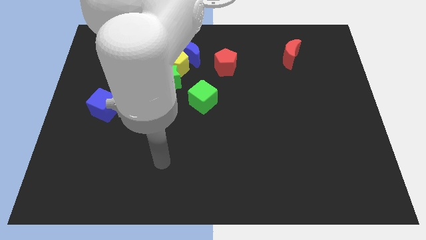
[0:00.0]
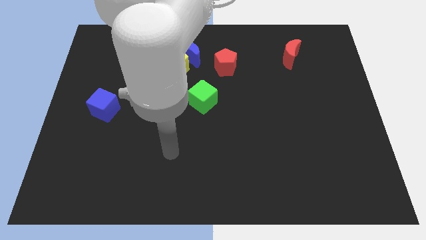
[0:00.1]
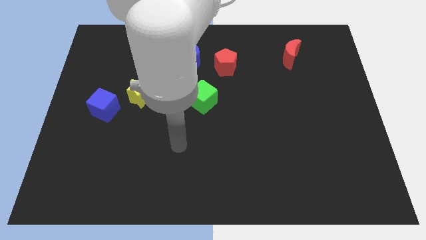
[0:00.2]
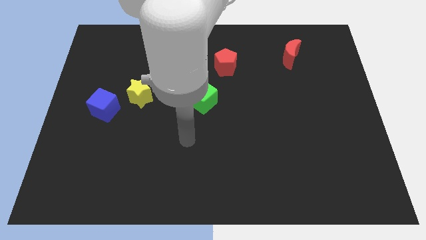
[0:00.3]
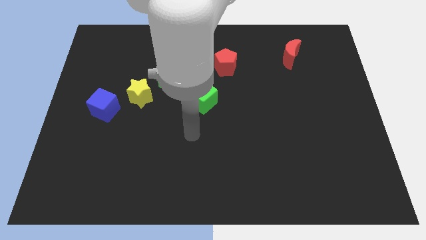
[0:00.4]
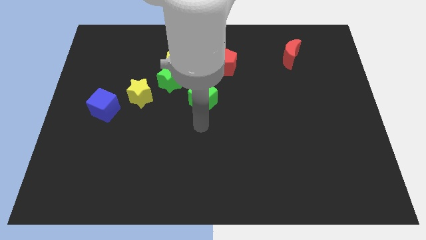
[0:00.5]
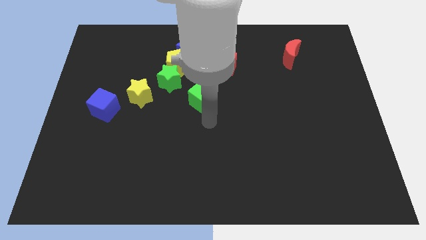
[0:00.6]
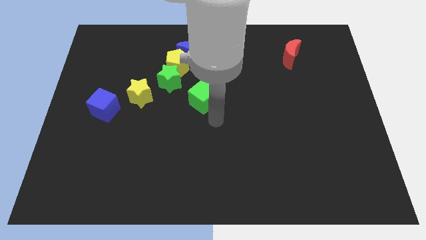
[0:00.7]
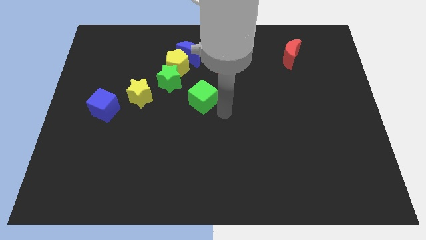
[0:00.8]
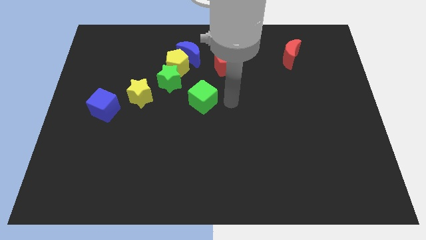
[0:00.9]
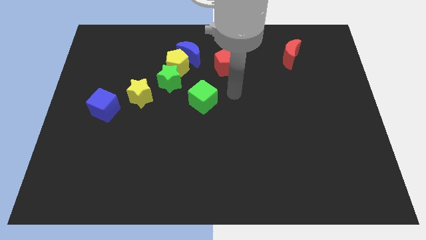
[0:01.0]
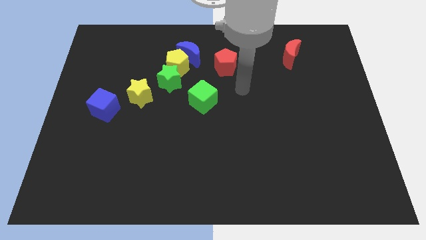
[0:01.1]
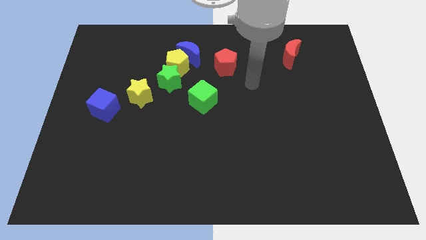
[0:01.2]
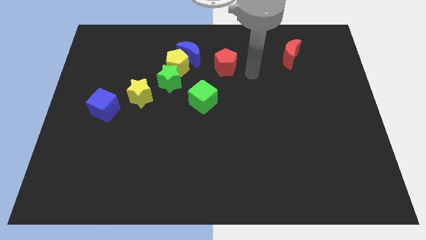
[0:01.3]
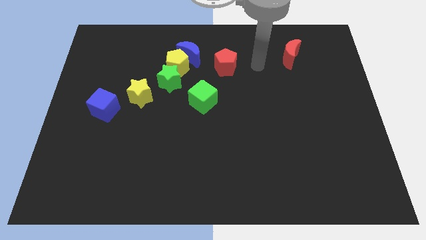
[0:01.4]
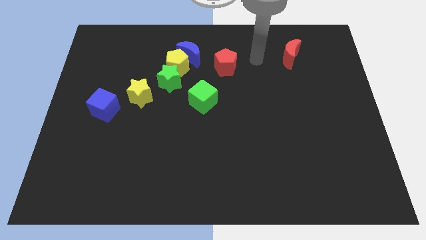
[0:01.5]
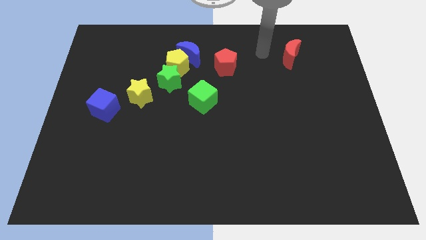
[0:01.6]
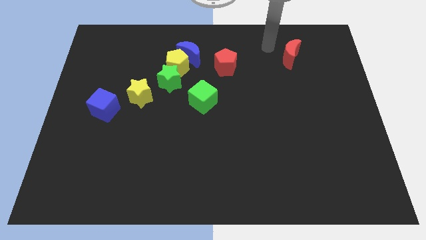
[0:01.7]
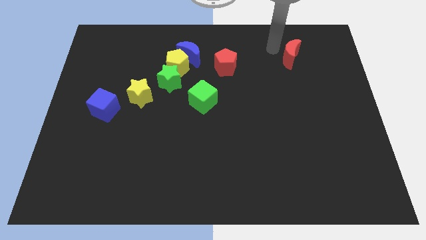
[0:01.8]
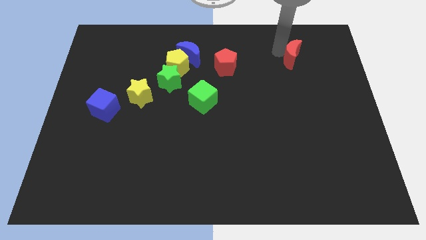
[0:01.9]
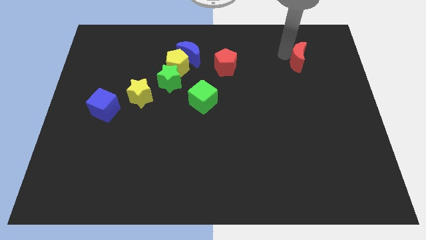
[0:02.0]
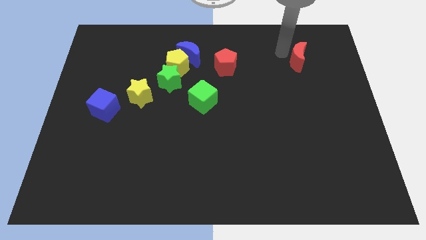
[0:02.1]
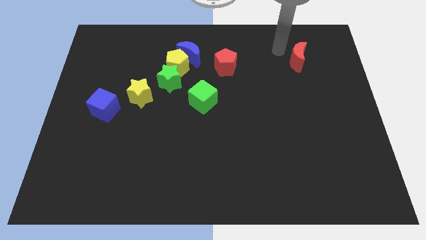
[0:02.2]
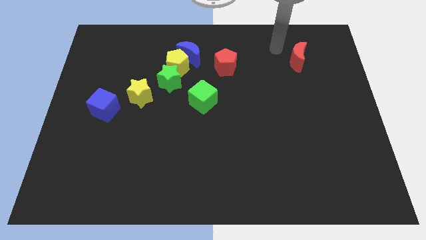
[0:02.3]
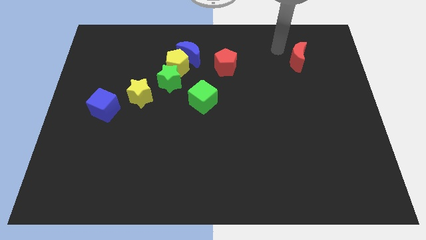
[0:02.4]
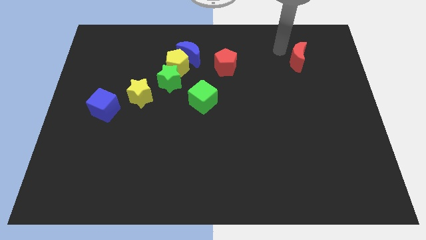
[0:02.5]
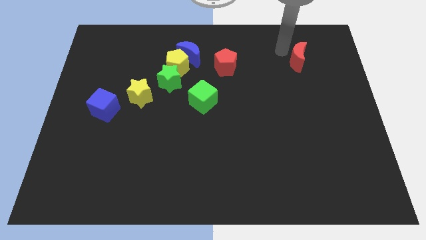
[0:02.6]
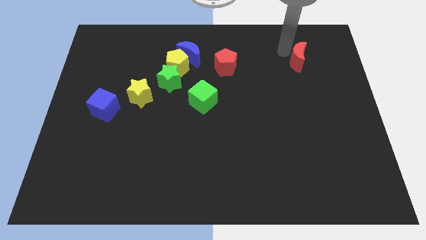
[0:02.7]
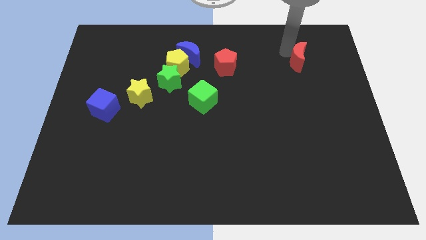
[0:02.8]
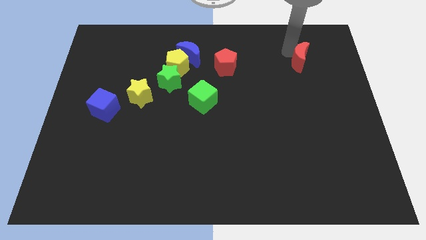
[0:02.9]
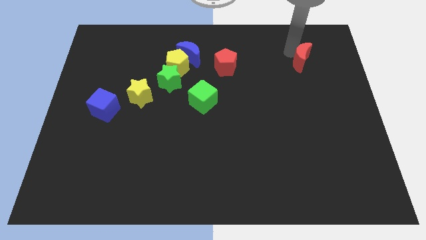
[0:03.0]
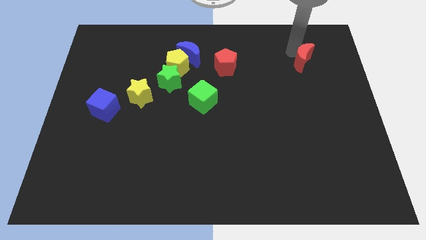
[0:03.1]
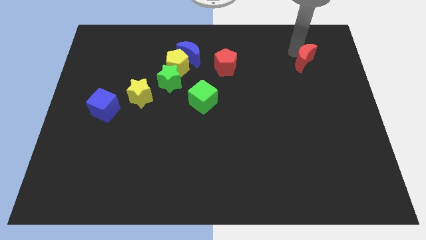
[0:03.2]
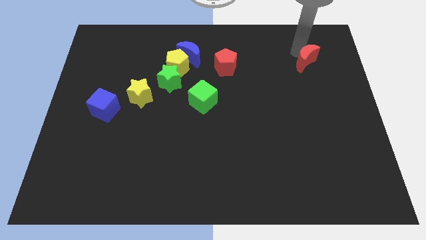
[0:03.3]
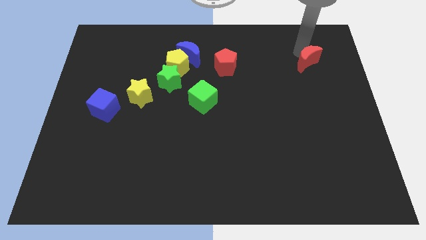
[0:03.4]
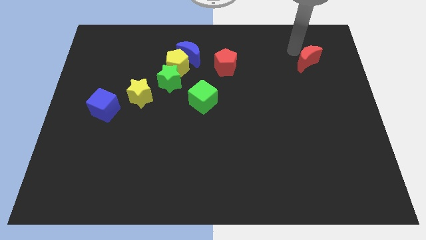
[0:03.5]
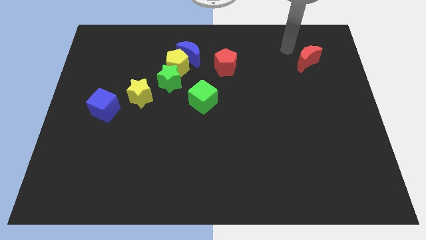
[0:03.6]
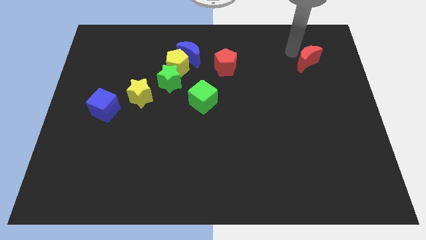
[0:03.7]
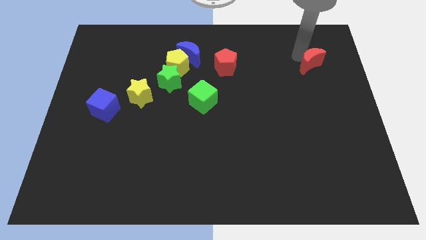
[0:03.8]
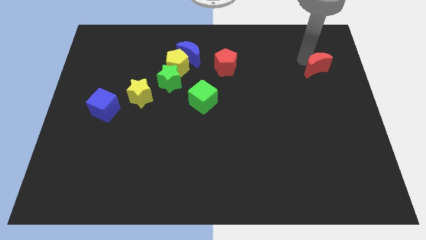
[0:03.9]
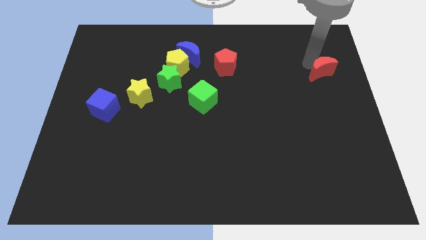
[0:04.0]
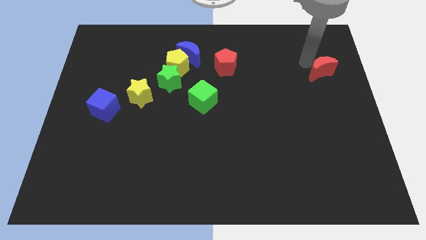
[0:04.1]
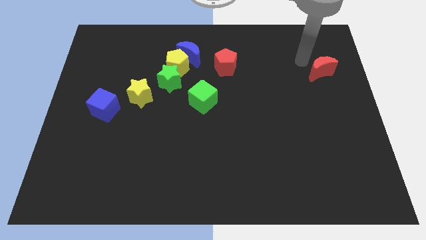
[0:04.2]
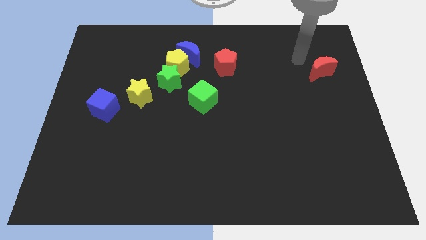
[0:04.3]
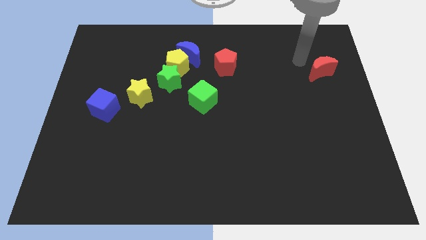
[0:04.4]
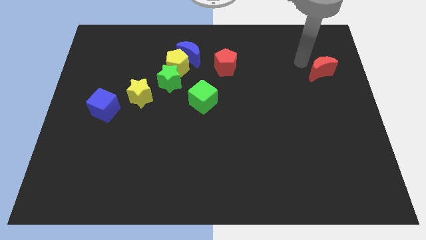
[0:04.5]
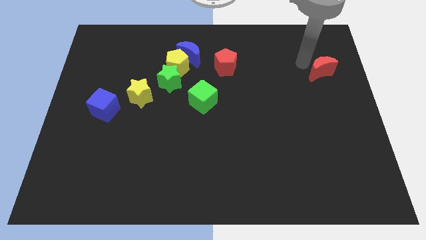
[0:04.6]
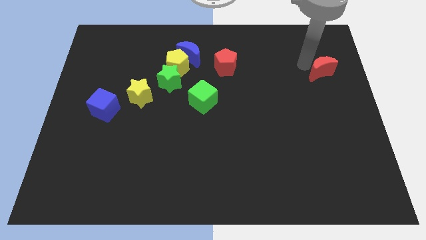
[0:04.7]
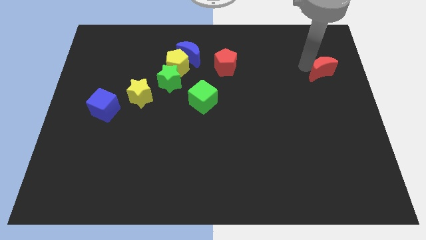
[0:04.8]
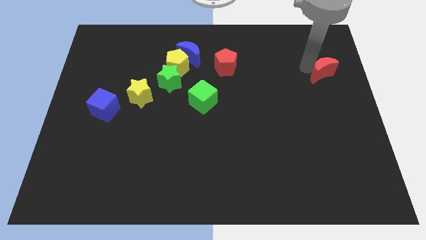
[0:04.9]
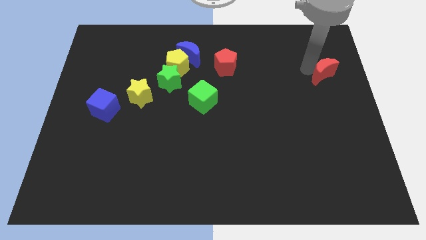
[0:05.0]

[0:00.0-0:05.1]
slide the red moon to the right side of the board

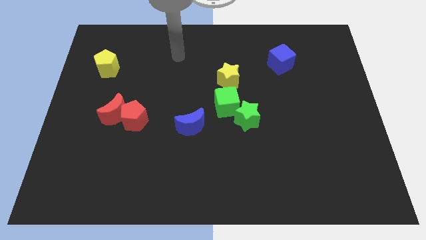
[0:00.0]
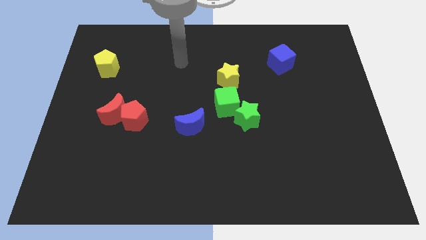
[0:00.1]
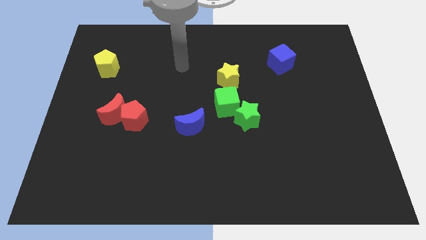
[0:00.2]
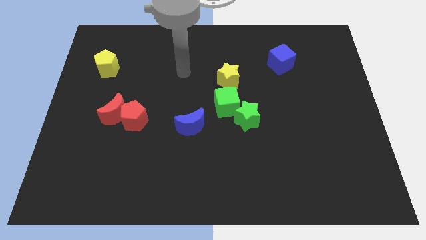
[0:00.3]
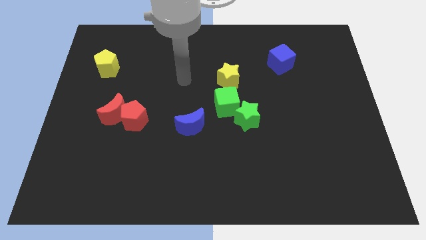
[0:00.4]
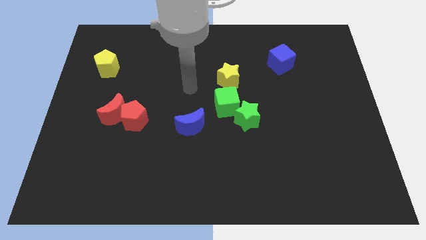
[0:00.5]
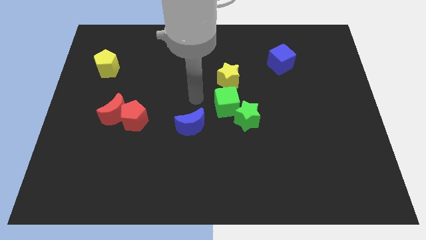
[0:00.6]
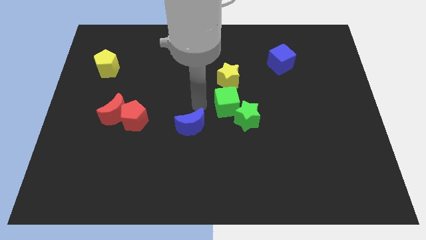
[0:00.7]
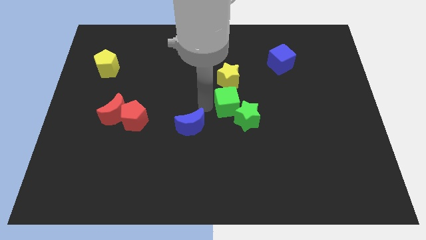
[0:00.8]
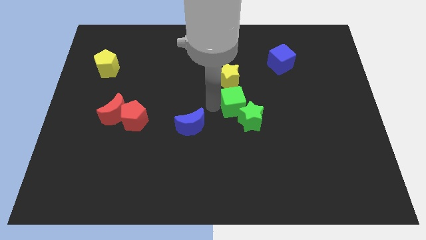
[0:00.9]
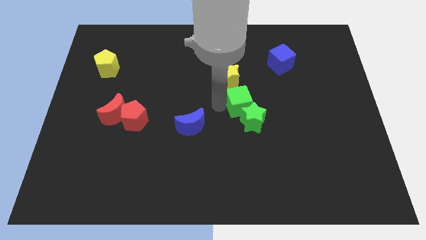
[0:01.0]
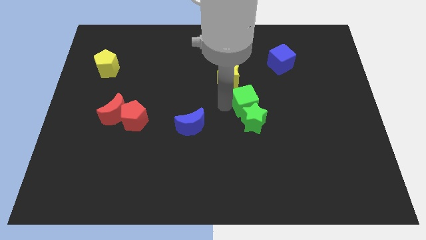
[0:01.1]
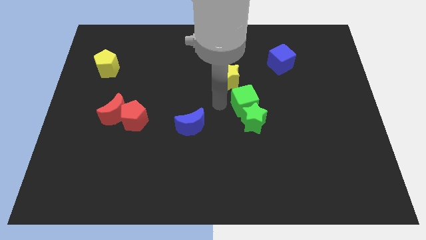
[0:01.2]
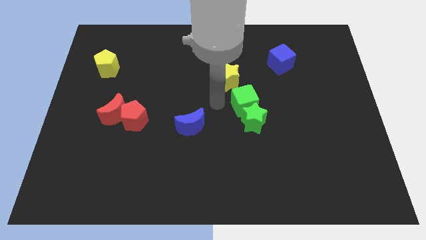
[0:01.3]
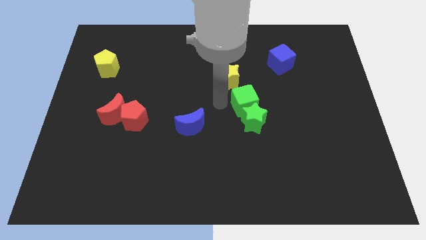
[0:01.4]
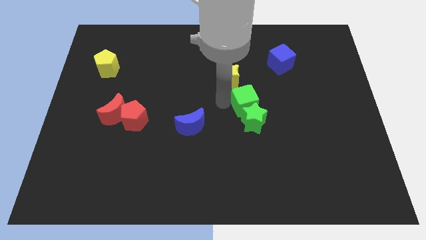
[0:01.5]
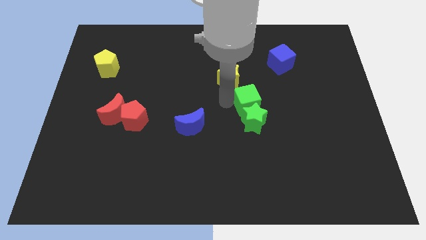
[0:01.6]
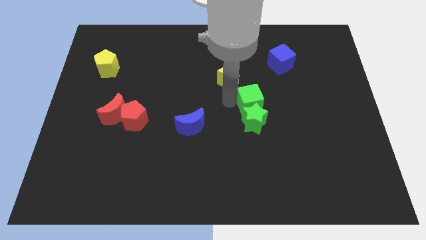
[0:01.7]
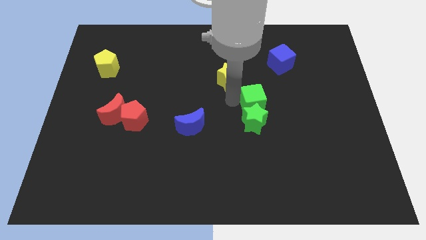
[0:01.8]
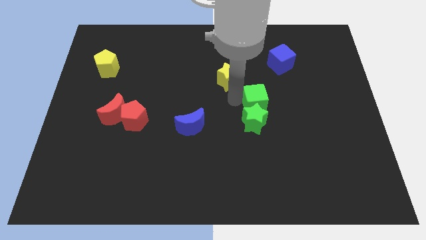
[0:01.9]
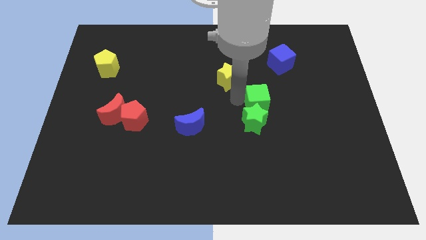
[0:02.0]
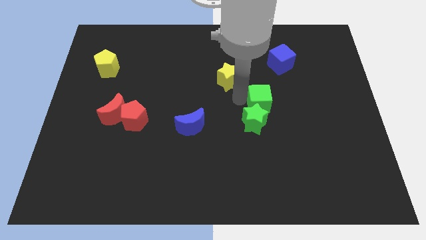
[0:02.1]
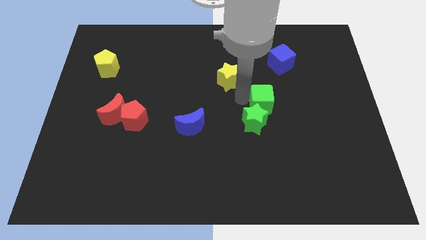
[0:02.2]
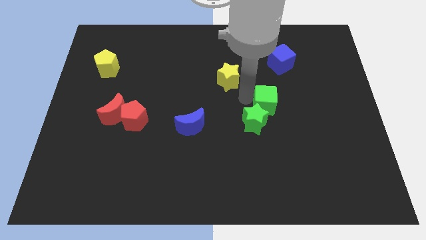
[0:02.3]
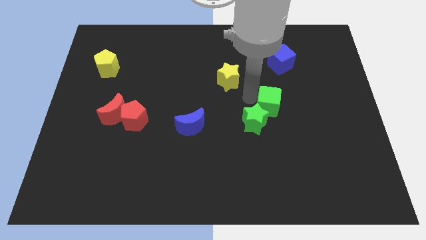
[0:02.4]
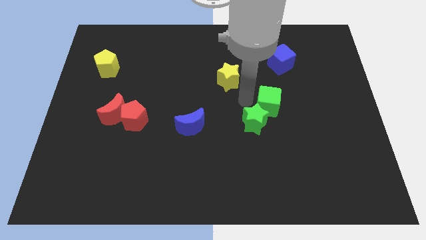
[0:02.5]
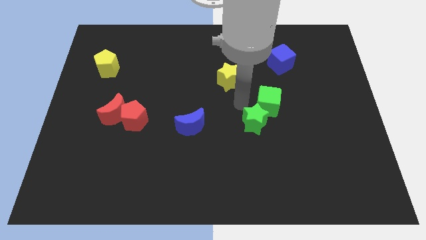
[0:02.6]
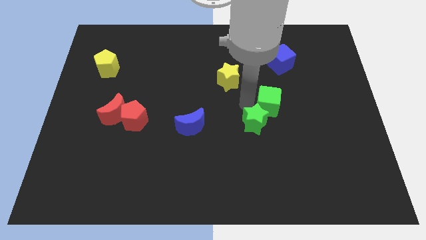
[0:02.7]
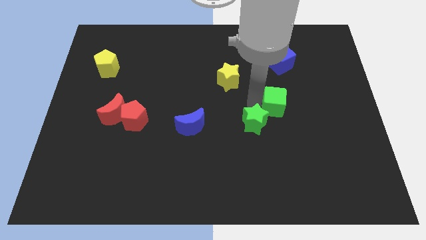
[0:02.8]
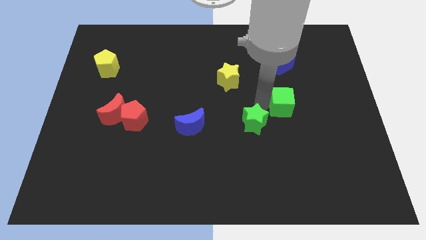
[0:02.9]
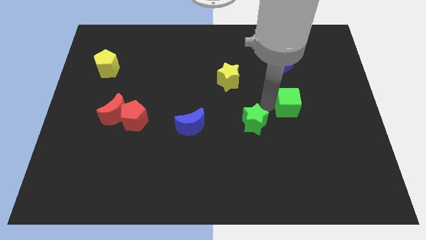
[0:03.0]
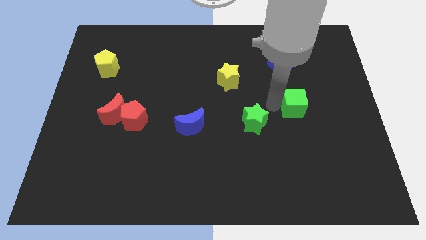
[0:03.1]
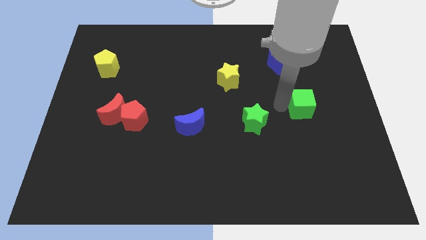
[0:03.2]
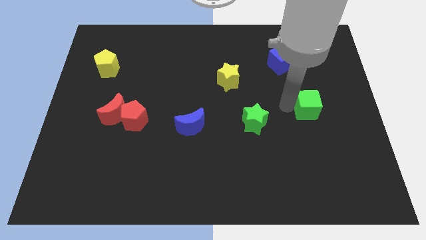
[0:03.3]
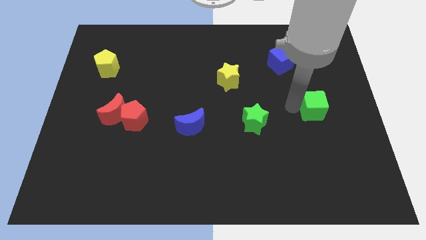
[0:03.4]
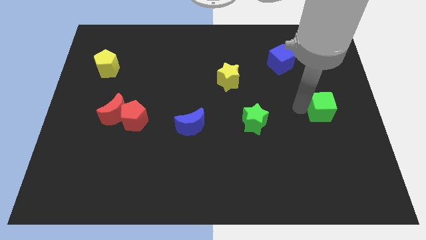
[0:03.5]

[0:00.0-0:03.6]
slide the green cube to the right side
